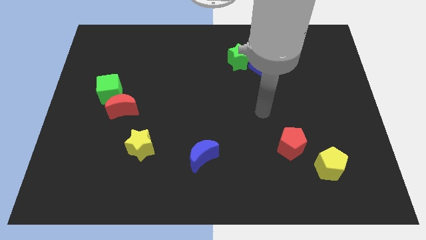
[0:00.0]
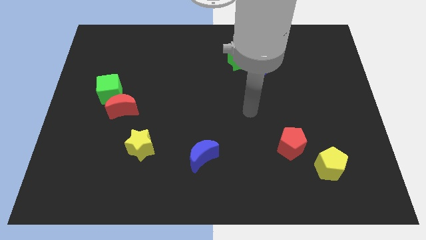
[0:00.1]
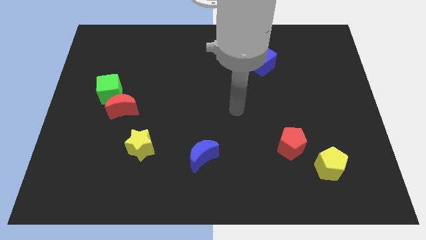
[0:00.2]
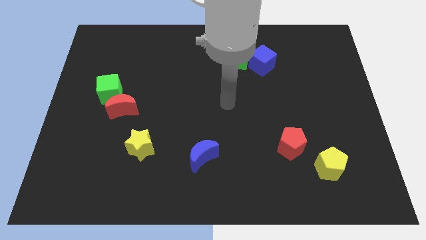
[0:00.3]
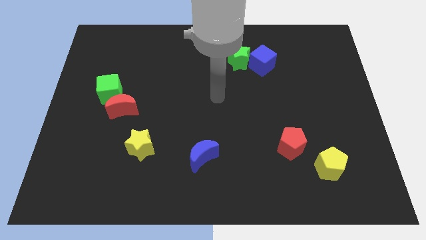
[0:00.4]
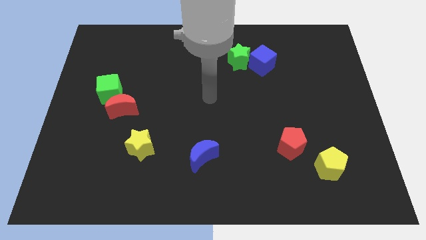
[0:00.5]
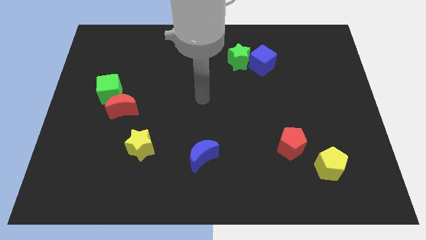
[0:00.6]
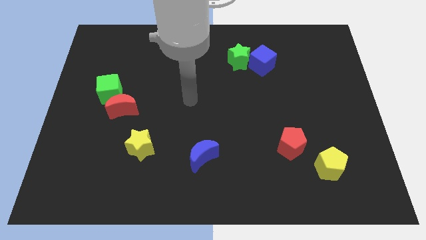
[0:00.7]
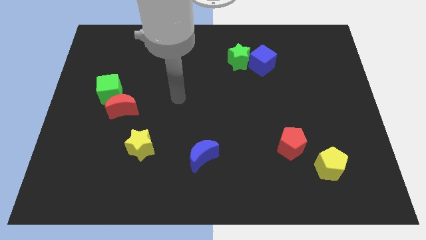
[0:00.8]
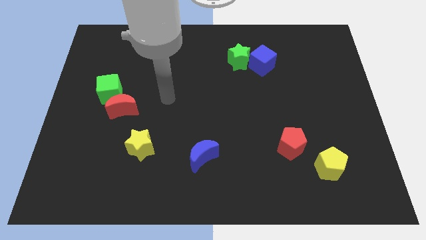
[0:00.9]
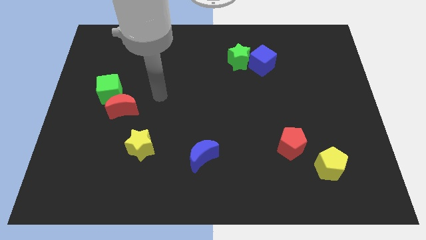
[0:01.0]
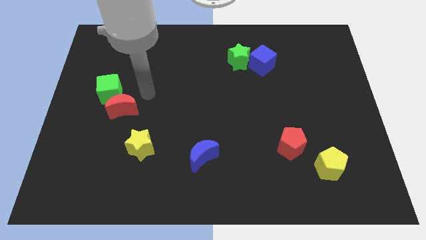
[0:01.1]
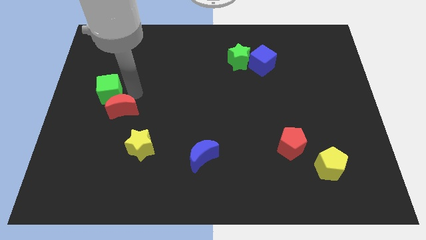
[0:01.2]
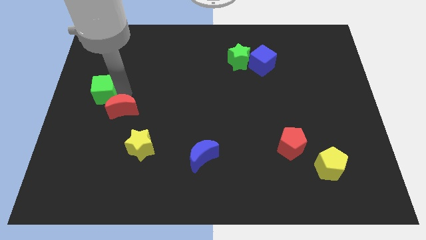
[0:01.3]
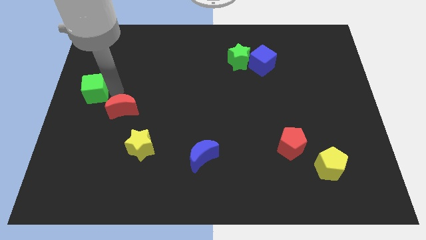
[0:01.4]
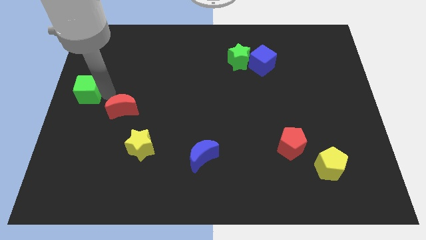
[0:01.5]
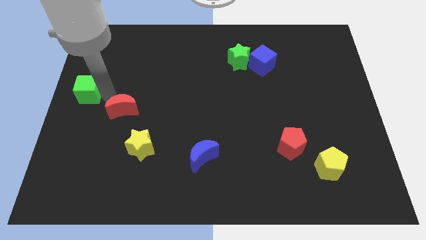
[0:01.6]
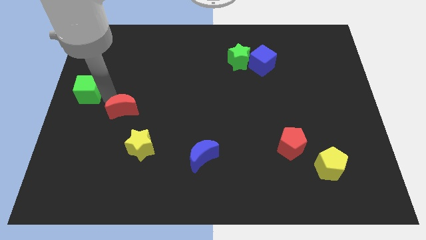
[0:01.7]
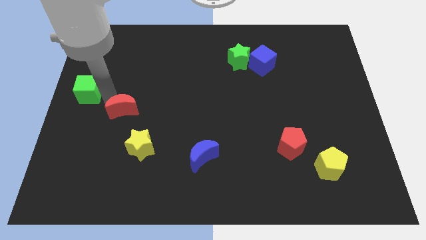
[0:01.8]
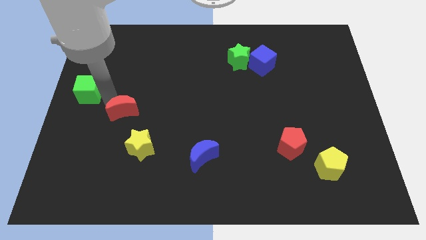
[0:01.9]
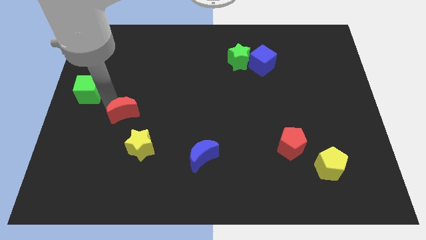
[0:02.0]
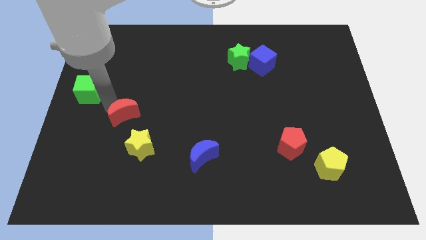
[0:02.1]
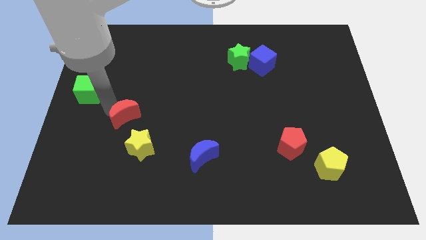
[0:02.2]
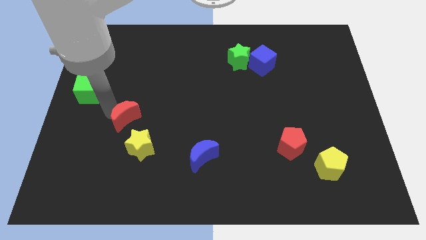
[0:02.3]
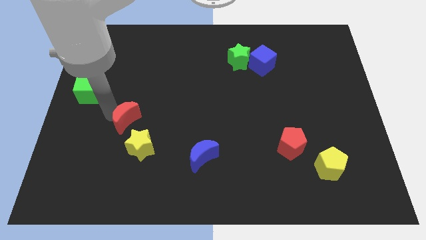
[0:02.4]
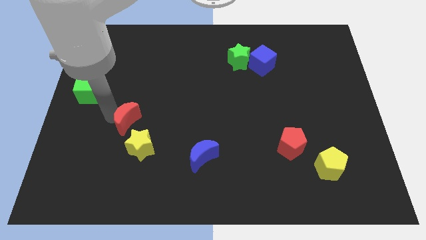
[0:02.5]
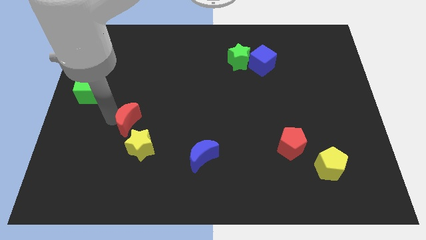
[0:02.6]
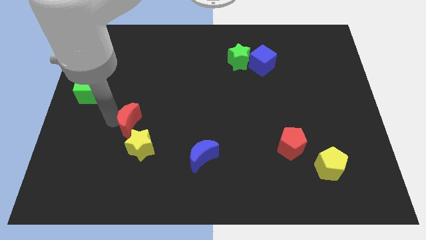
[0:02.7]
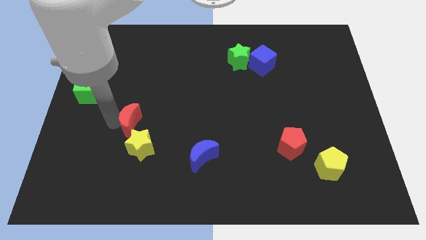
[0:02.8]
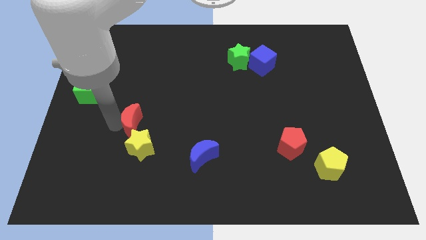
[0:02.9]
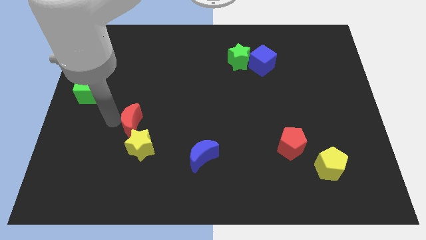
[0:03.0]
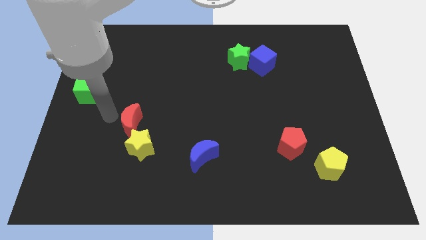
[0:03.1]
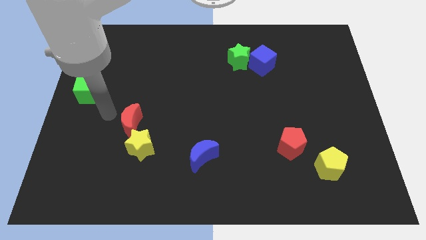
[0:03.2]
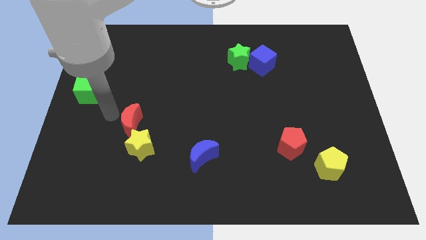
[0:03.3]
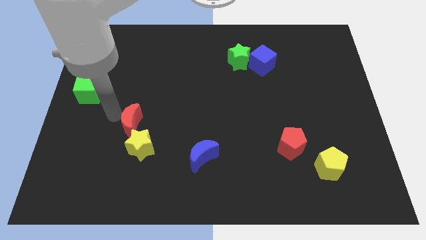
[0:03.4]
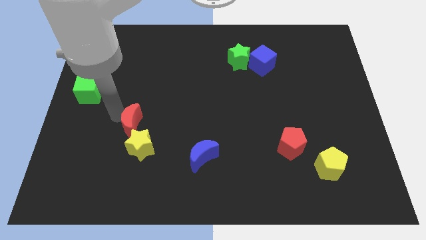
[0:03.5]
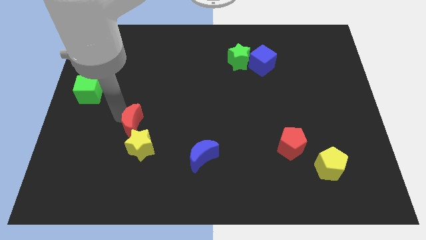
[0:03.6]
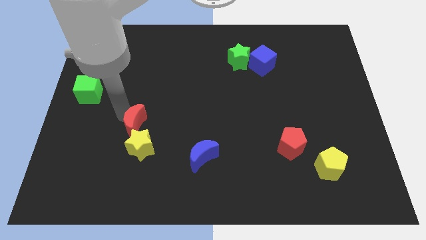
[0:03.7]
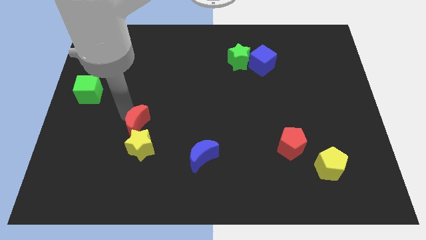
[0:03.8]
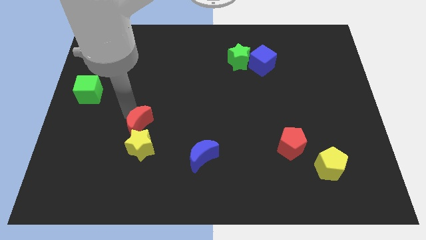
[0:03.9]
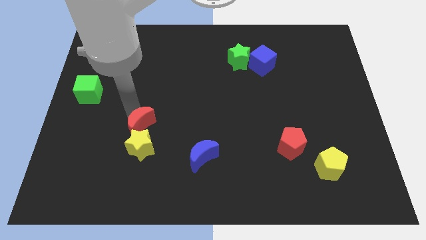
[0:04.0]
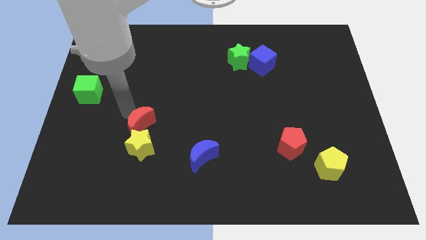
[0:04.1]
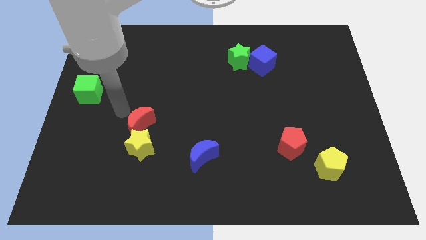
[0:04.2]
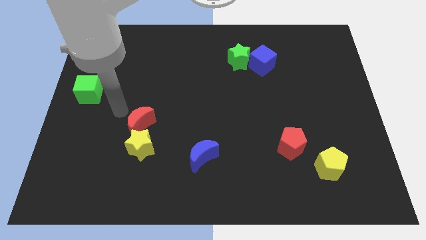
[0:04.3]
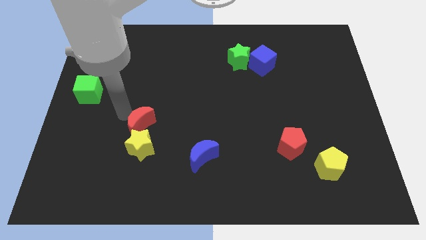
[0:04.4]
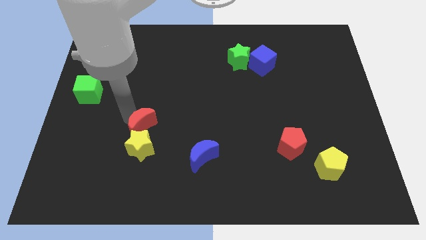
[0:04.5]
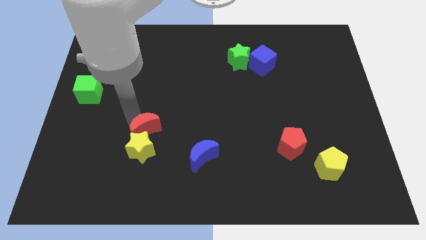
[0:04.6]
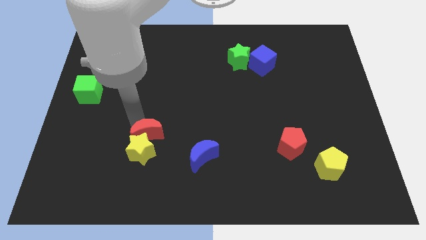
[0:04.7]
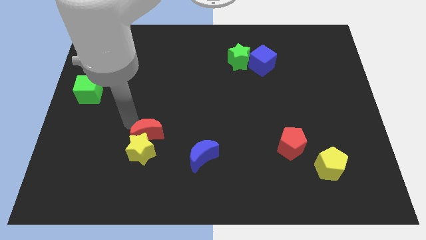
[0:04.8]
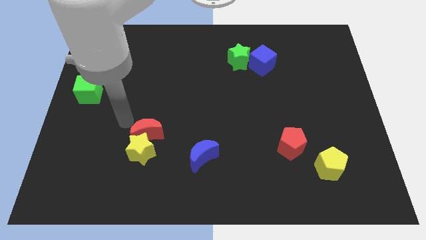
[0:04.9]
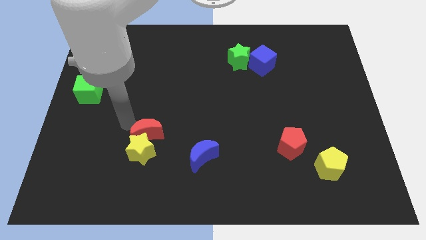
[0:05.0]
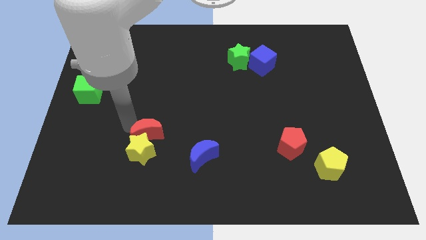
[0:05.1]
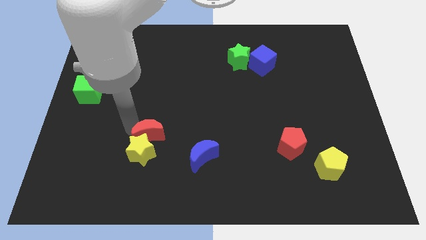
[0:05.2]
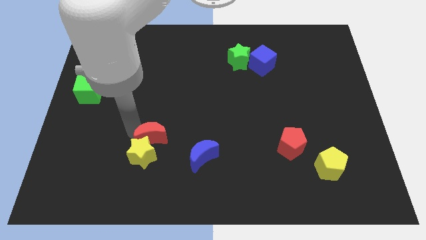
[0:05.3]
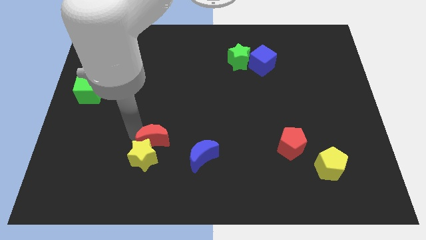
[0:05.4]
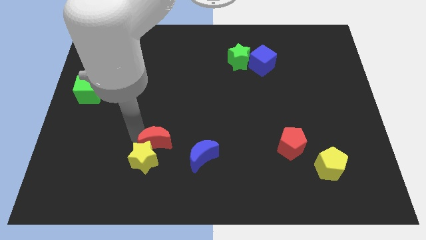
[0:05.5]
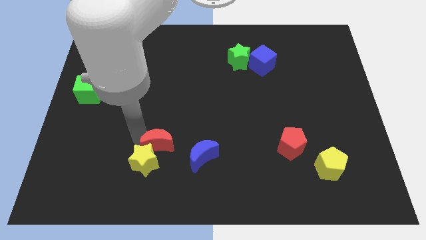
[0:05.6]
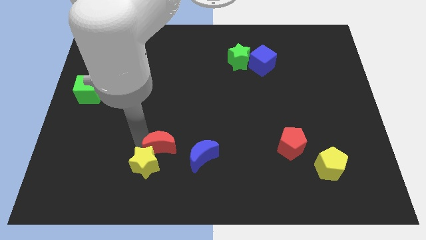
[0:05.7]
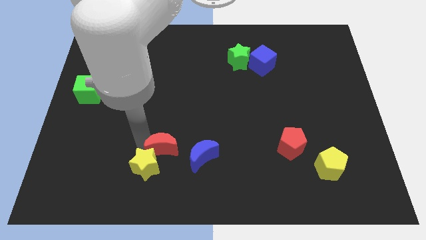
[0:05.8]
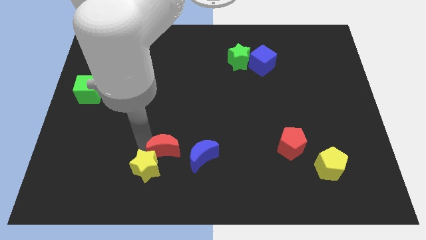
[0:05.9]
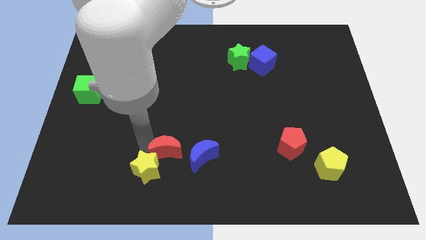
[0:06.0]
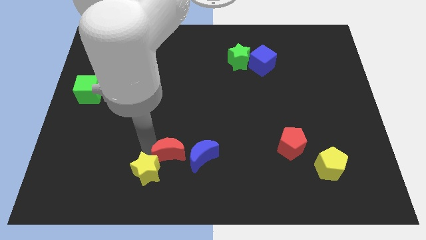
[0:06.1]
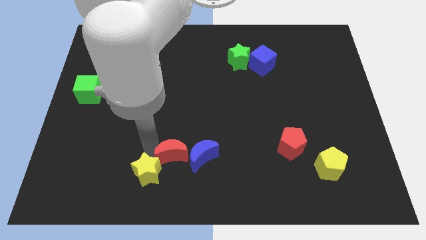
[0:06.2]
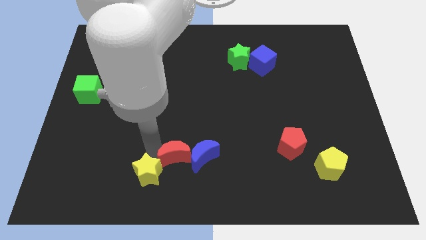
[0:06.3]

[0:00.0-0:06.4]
put the red moon towards the blue moon

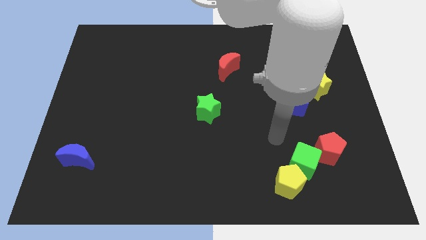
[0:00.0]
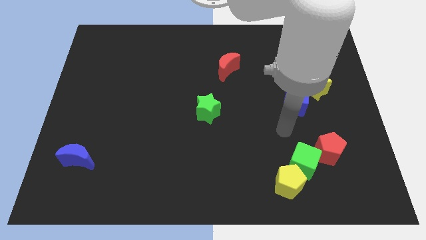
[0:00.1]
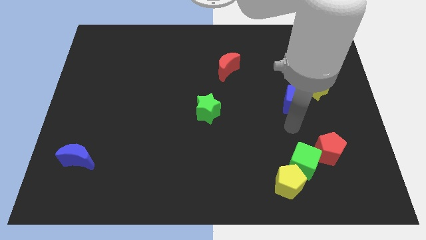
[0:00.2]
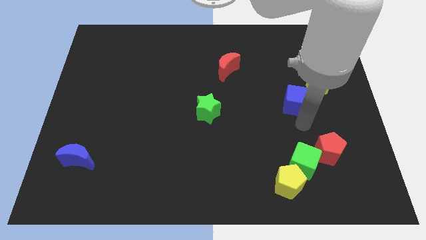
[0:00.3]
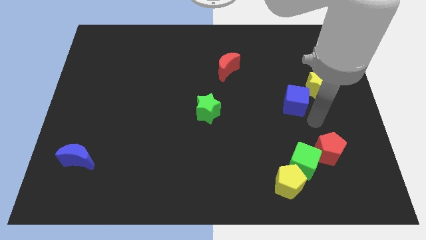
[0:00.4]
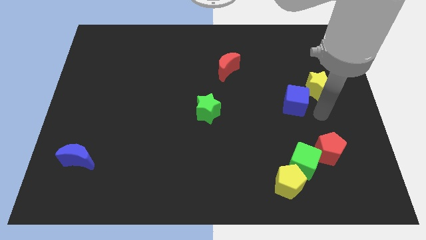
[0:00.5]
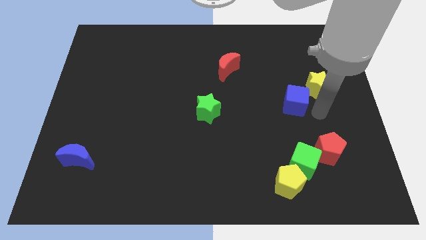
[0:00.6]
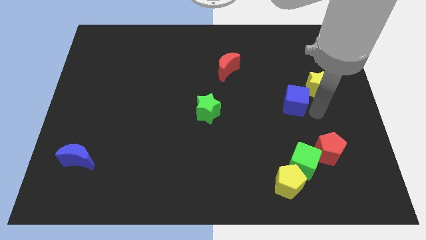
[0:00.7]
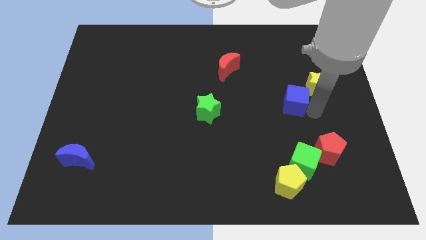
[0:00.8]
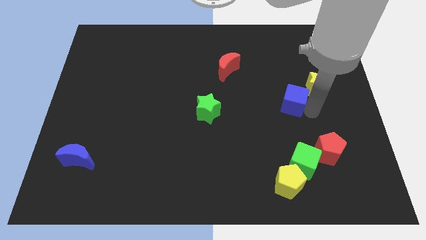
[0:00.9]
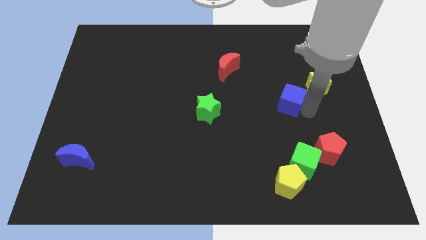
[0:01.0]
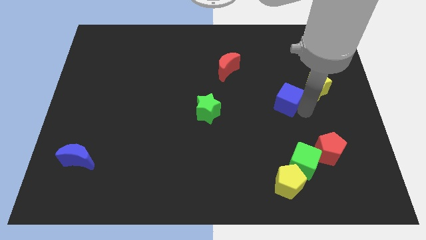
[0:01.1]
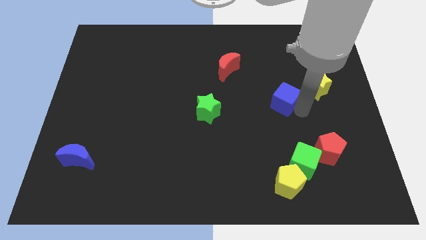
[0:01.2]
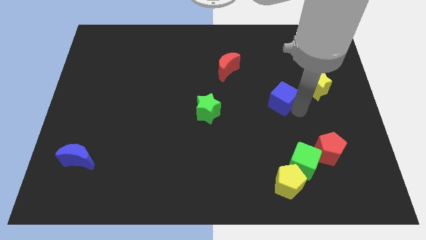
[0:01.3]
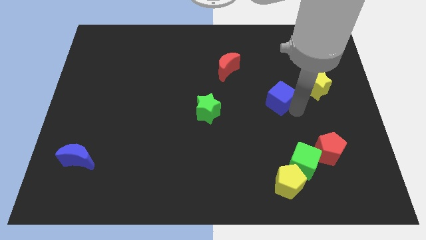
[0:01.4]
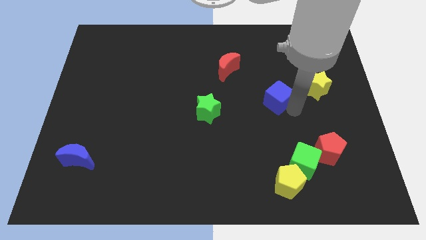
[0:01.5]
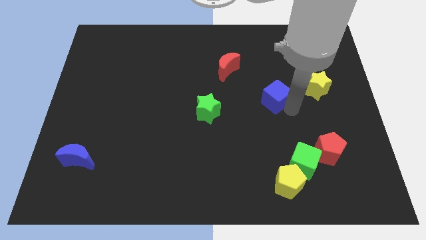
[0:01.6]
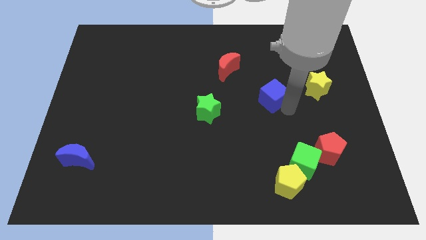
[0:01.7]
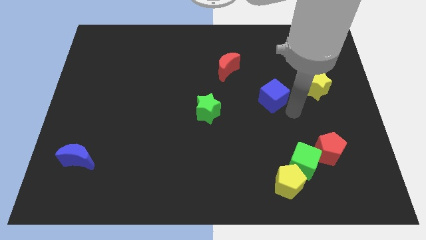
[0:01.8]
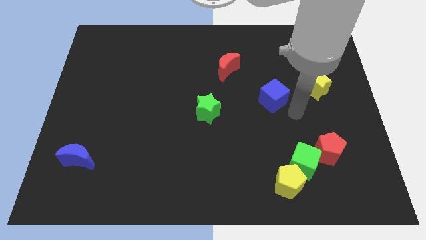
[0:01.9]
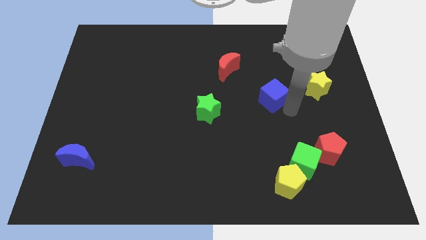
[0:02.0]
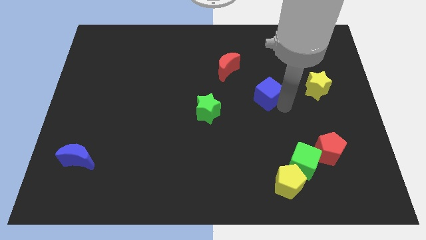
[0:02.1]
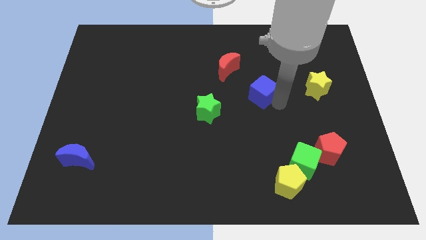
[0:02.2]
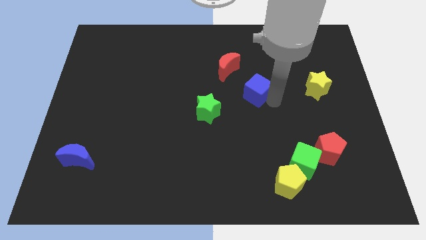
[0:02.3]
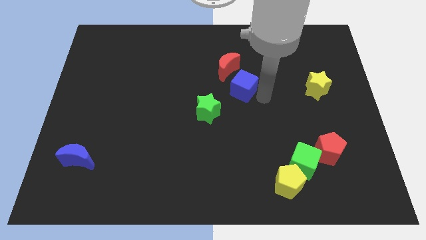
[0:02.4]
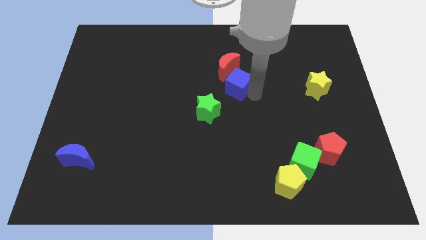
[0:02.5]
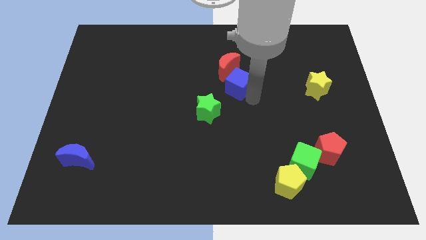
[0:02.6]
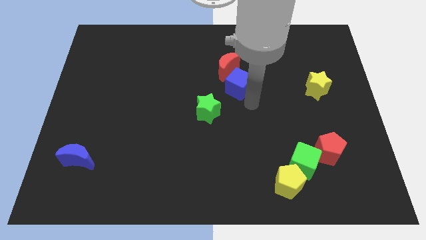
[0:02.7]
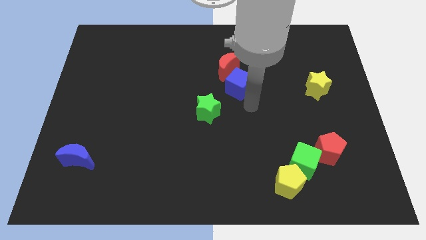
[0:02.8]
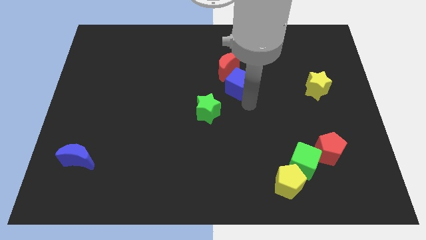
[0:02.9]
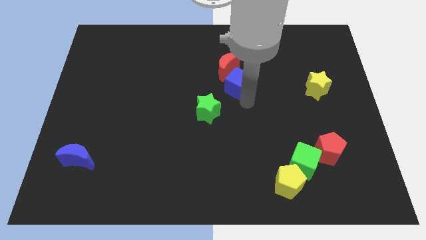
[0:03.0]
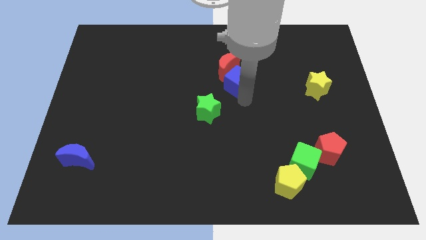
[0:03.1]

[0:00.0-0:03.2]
put the blue cube to the red moon
